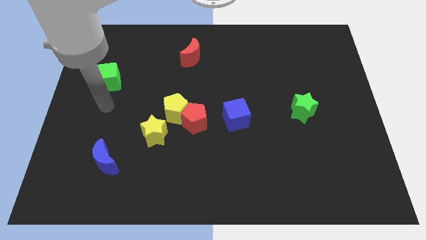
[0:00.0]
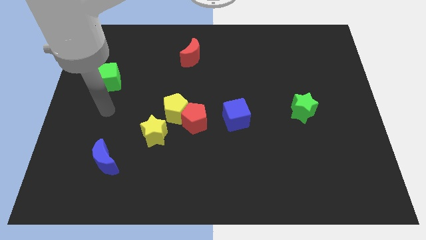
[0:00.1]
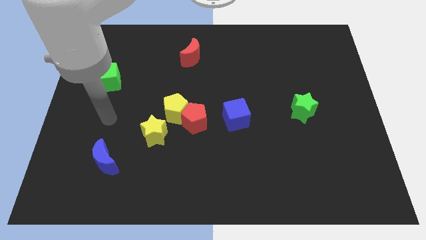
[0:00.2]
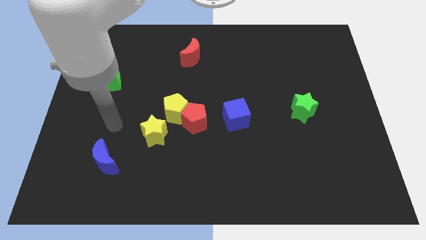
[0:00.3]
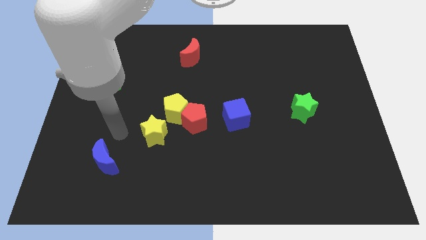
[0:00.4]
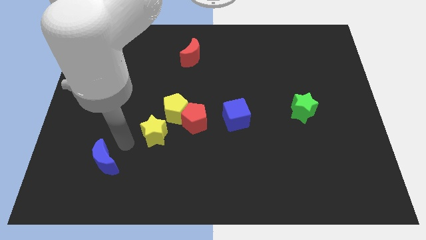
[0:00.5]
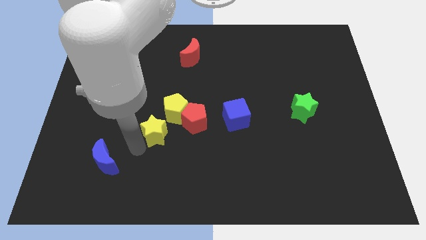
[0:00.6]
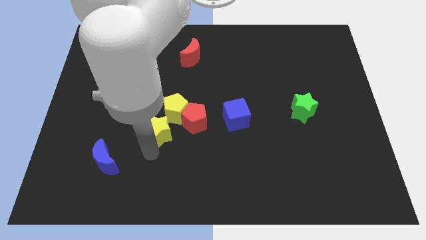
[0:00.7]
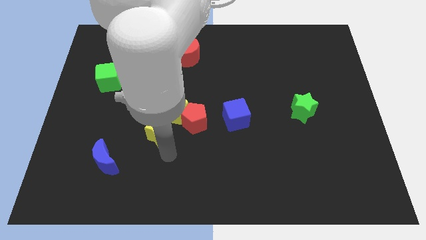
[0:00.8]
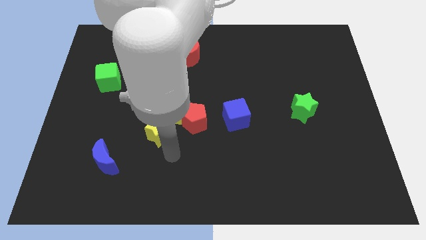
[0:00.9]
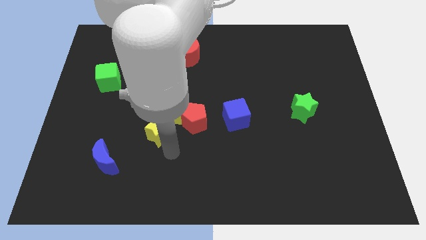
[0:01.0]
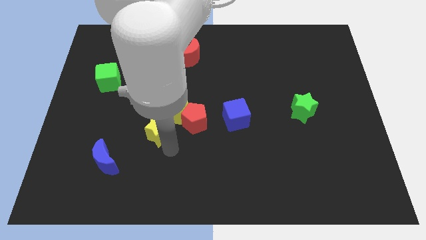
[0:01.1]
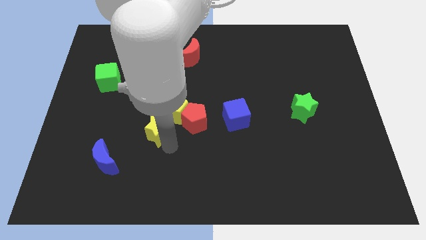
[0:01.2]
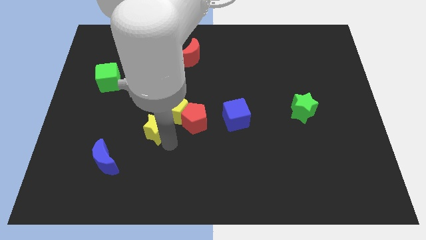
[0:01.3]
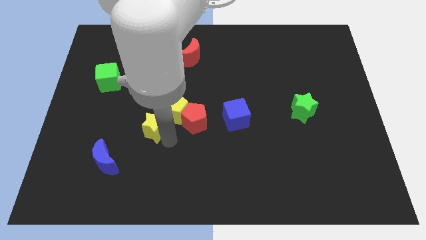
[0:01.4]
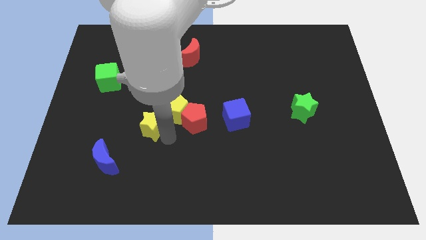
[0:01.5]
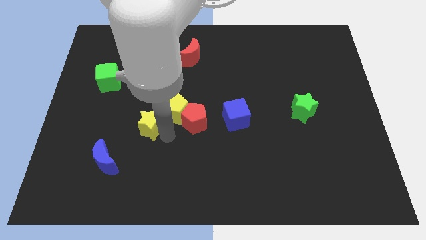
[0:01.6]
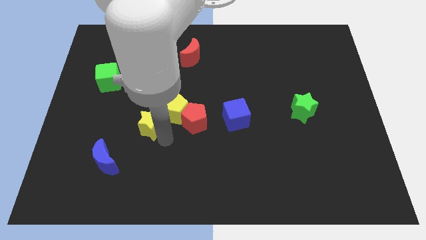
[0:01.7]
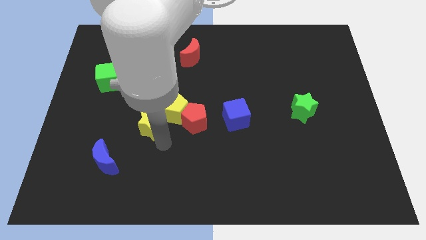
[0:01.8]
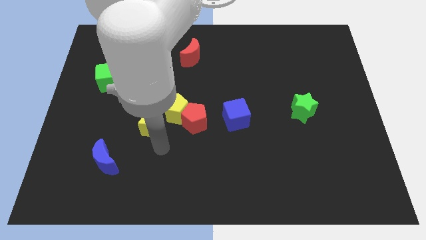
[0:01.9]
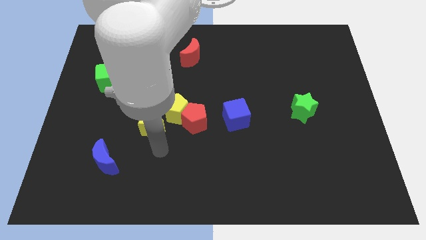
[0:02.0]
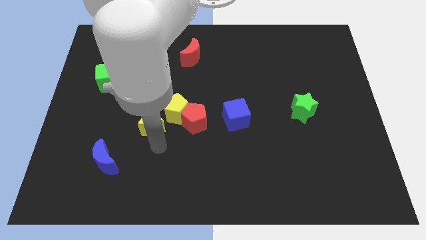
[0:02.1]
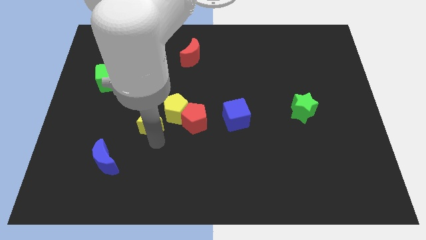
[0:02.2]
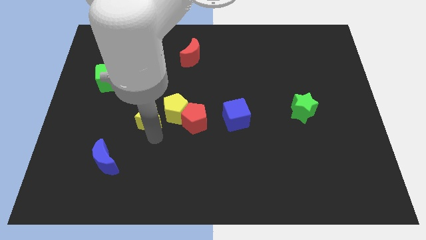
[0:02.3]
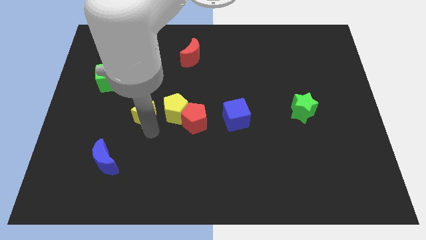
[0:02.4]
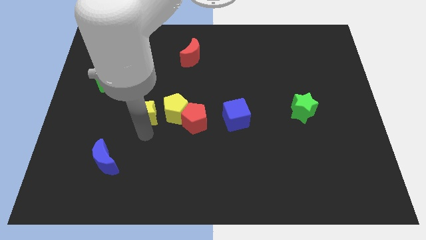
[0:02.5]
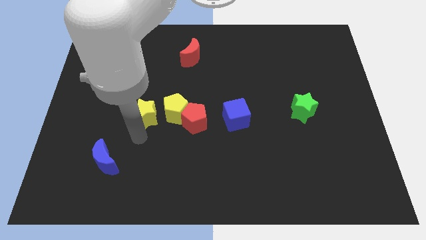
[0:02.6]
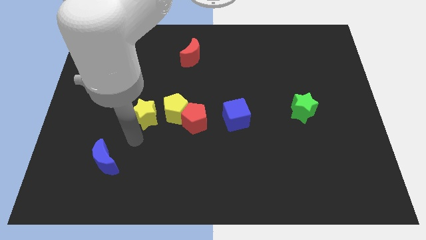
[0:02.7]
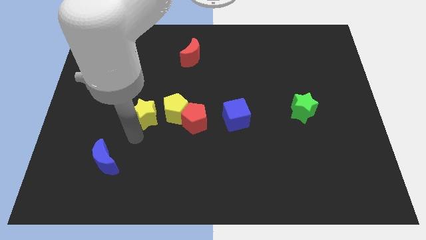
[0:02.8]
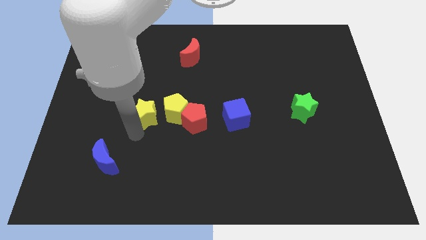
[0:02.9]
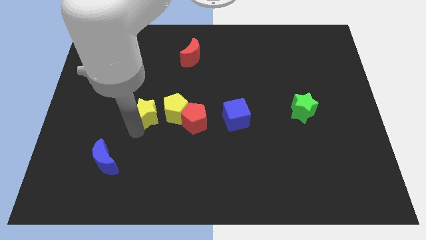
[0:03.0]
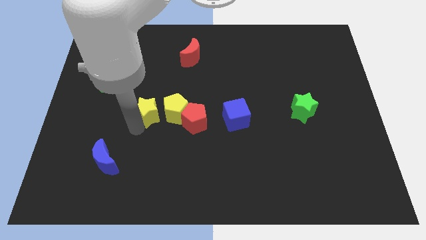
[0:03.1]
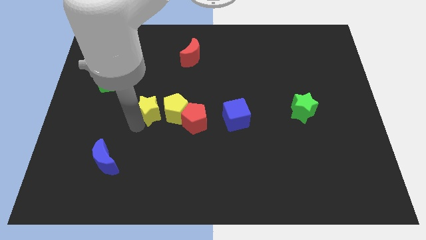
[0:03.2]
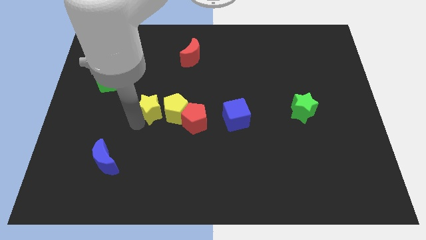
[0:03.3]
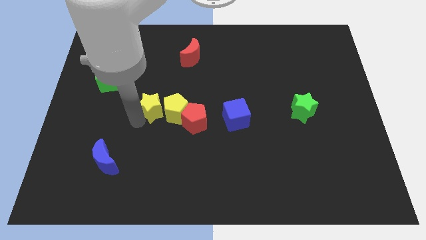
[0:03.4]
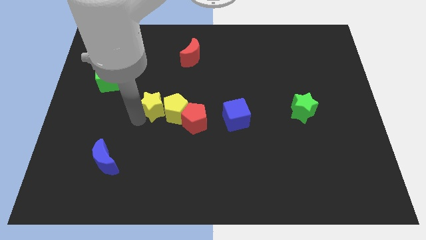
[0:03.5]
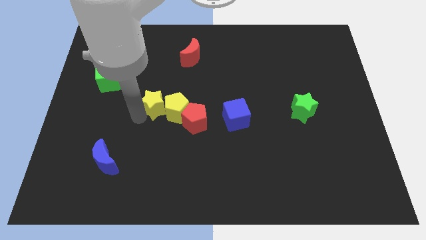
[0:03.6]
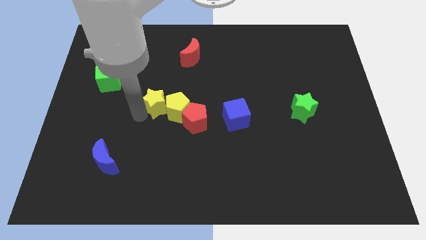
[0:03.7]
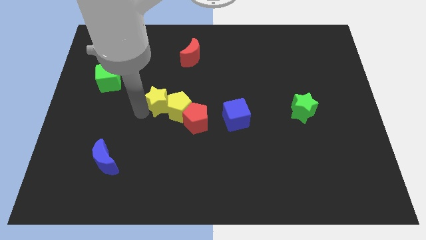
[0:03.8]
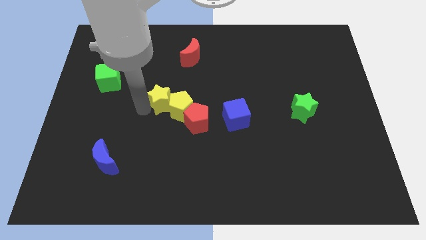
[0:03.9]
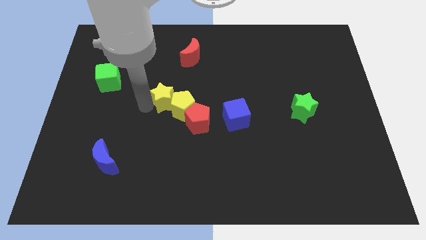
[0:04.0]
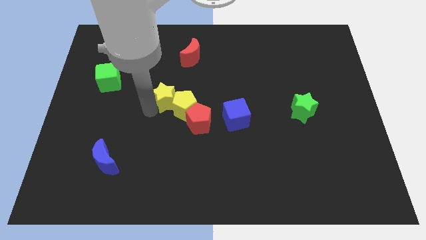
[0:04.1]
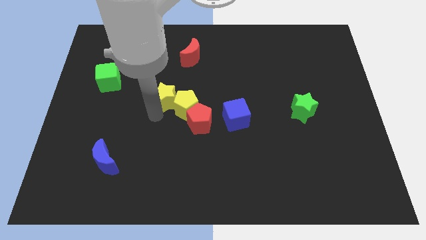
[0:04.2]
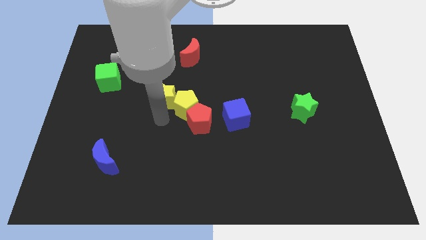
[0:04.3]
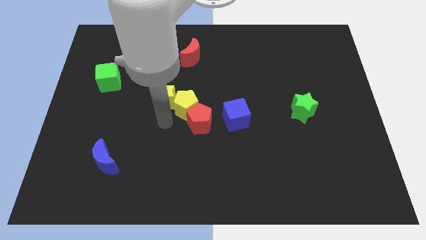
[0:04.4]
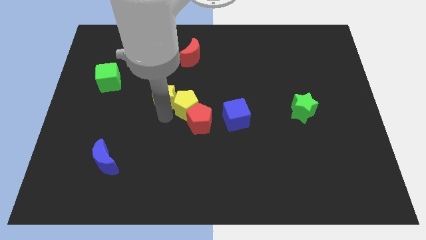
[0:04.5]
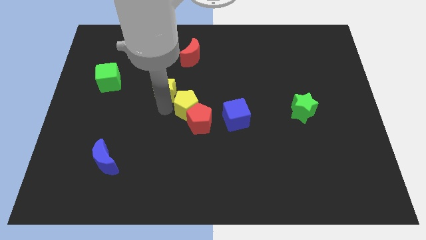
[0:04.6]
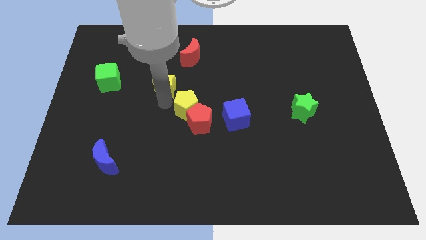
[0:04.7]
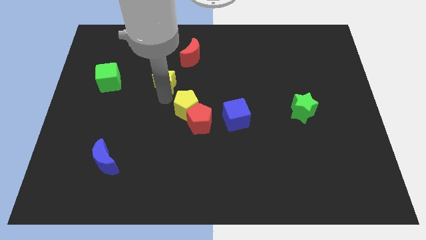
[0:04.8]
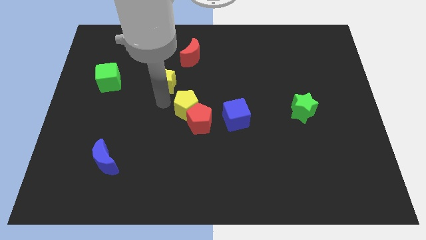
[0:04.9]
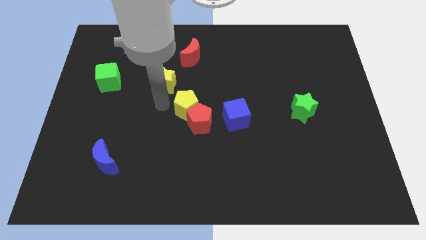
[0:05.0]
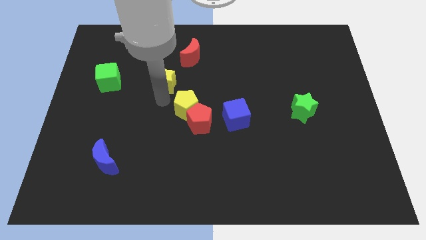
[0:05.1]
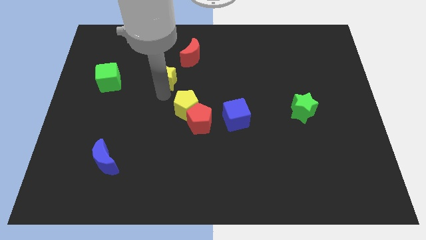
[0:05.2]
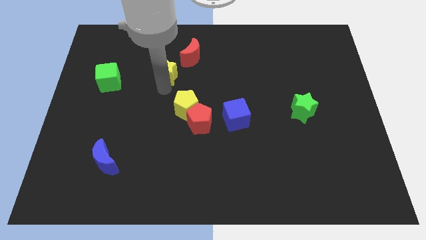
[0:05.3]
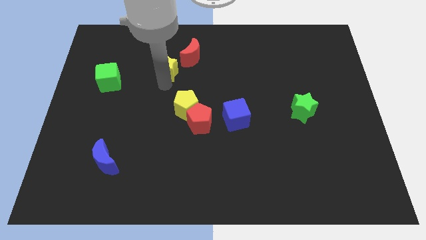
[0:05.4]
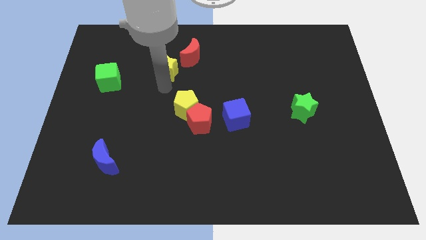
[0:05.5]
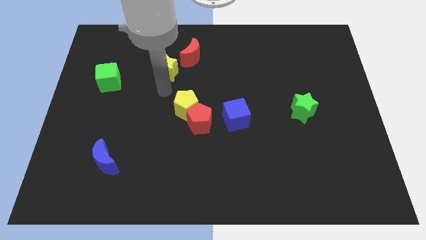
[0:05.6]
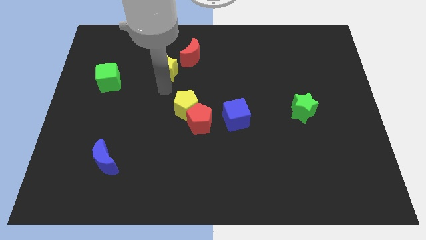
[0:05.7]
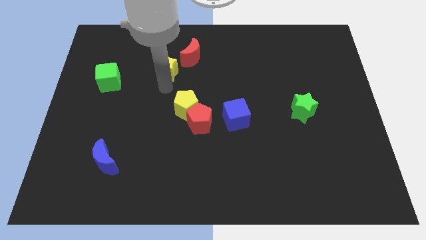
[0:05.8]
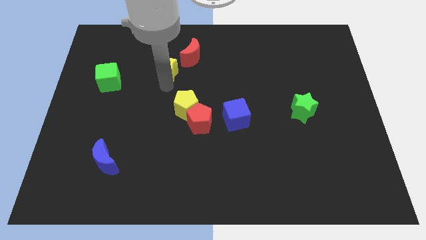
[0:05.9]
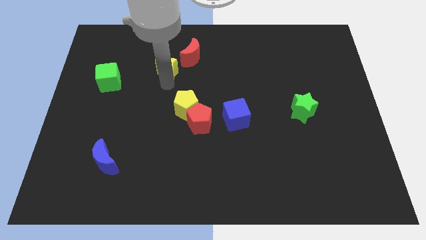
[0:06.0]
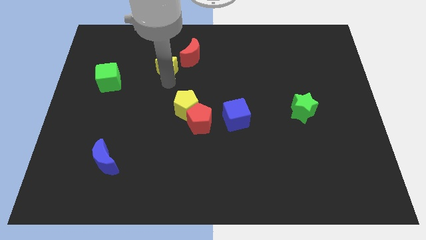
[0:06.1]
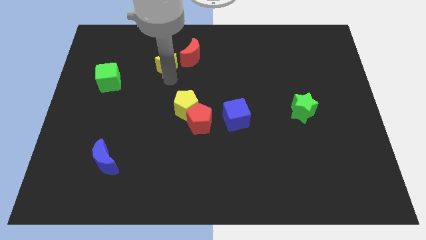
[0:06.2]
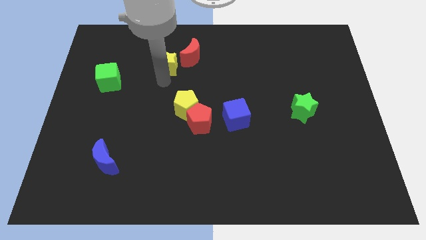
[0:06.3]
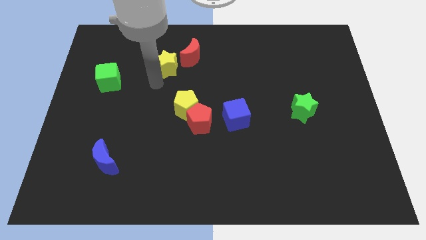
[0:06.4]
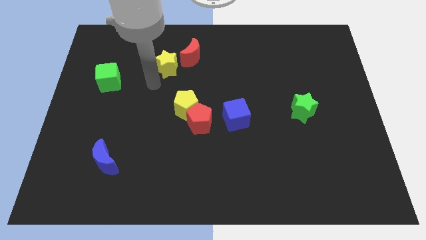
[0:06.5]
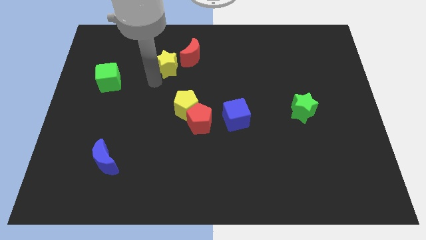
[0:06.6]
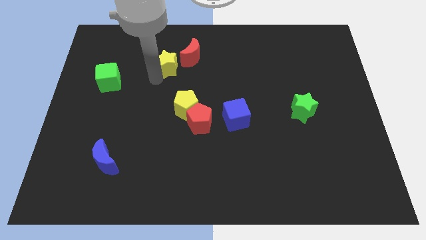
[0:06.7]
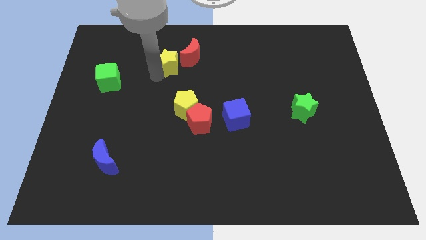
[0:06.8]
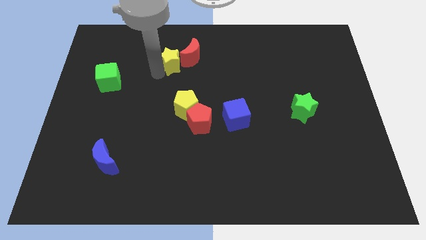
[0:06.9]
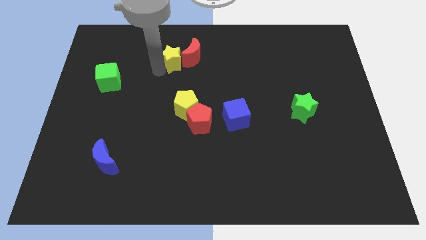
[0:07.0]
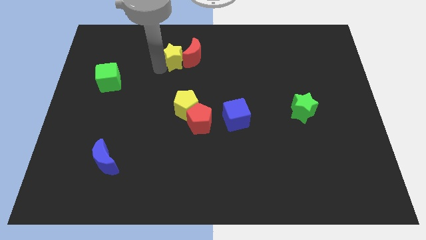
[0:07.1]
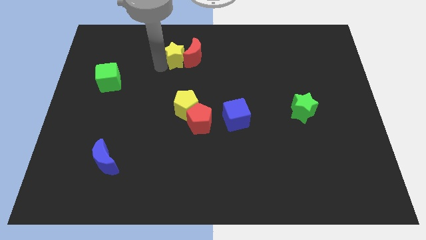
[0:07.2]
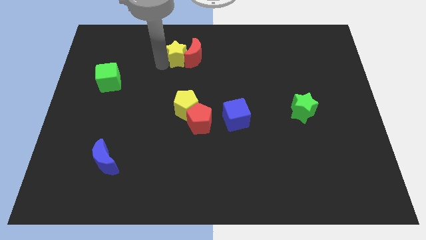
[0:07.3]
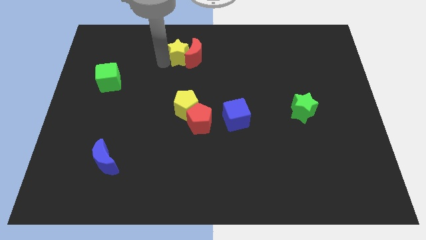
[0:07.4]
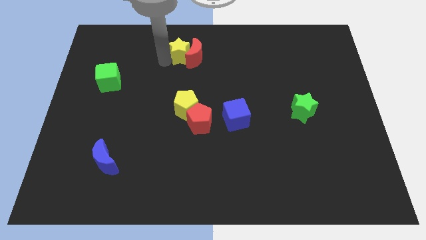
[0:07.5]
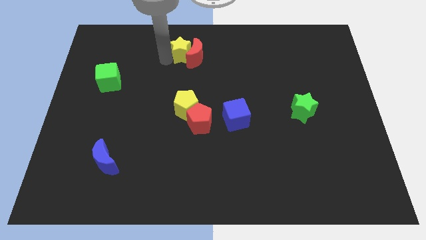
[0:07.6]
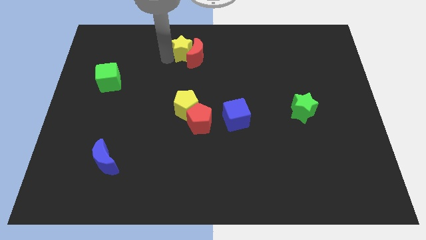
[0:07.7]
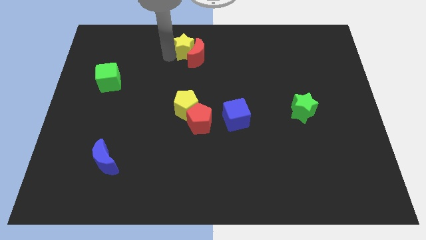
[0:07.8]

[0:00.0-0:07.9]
move the yellow star to the towards your base
